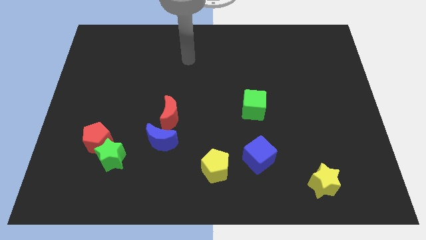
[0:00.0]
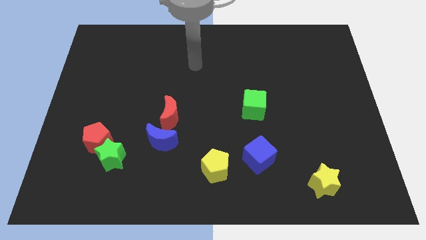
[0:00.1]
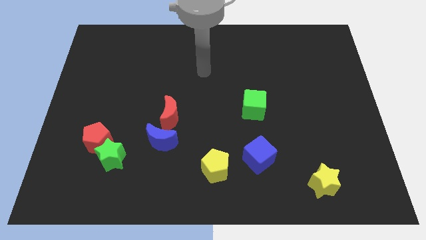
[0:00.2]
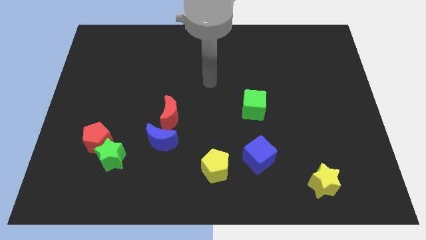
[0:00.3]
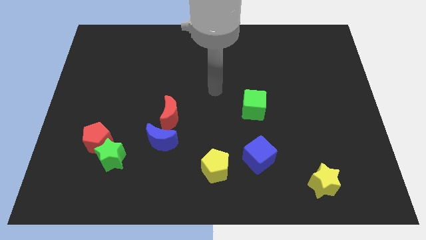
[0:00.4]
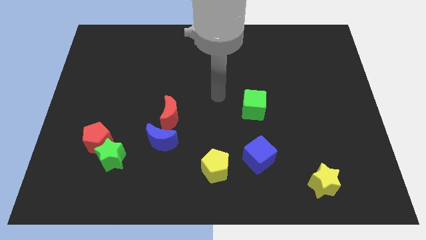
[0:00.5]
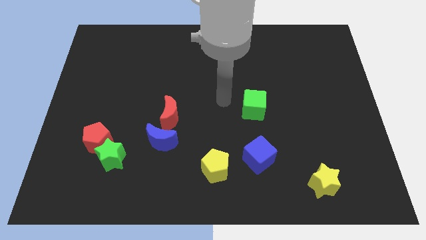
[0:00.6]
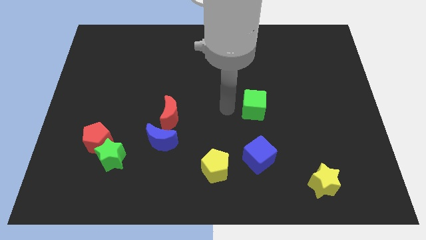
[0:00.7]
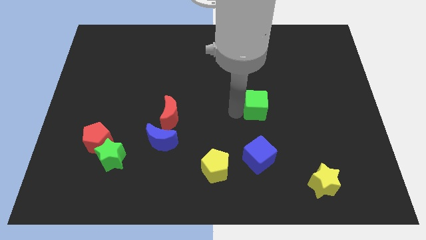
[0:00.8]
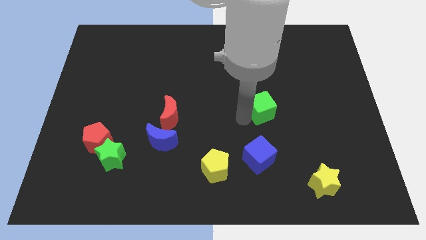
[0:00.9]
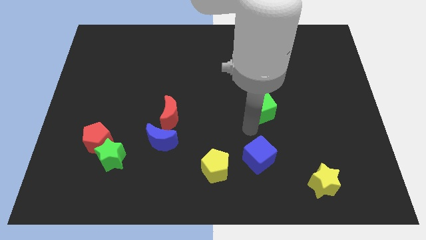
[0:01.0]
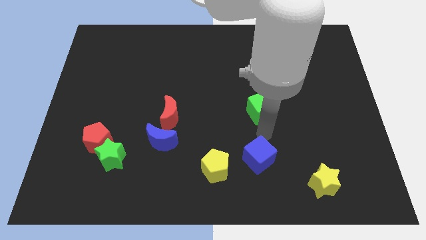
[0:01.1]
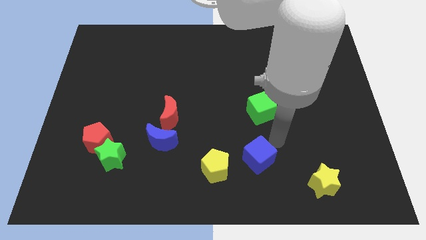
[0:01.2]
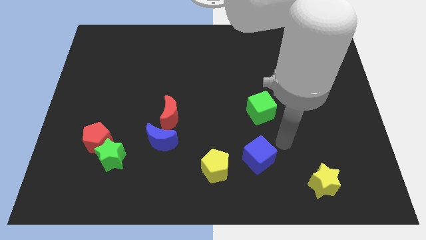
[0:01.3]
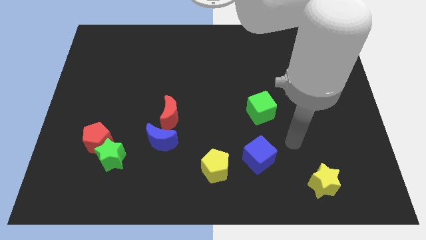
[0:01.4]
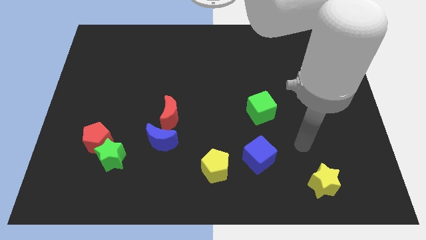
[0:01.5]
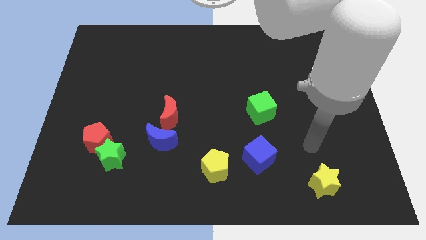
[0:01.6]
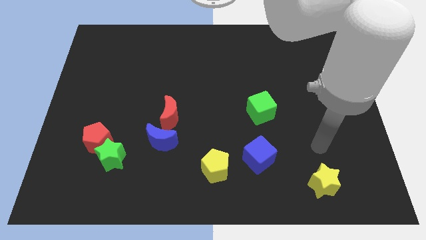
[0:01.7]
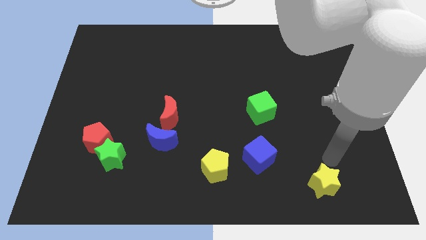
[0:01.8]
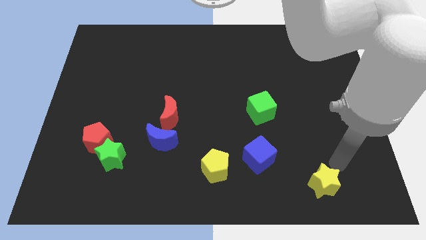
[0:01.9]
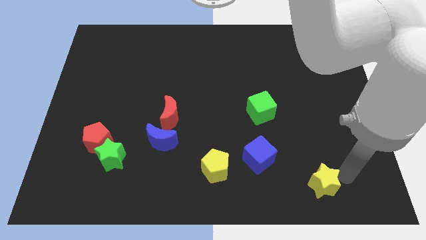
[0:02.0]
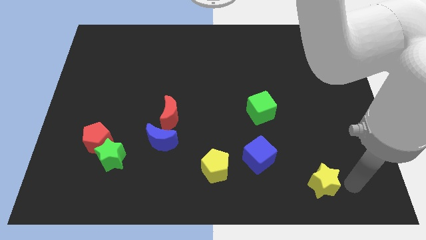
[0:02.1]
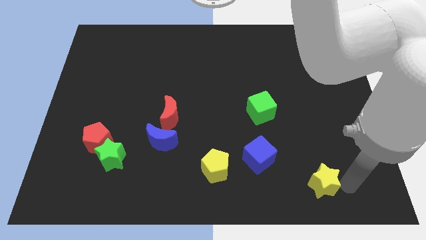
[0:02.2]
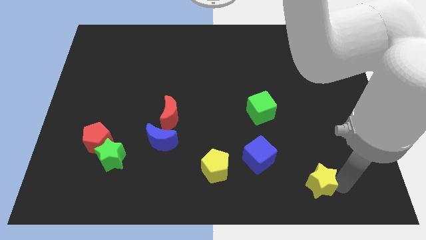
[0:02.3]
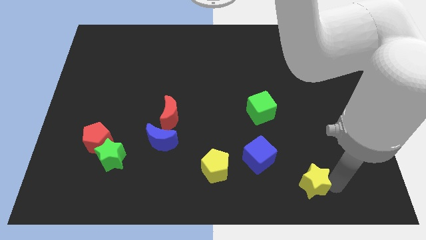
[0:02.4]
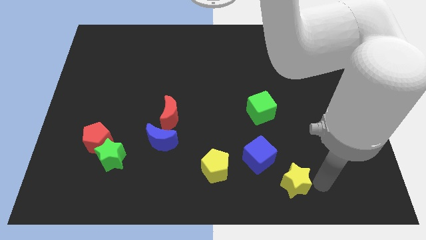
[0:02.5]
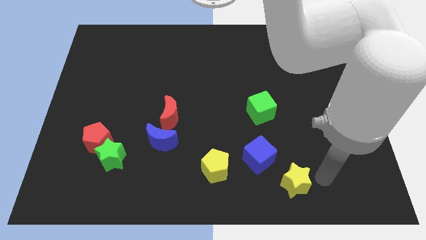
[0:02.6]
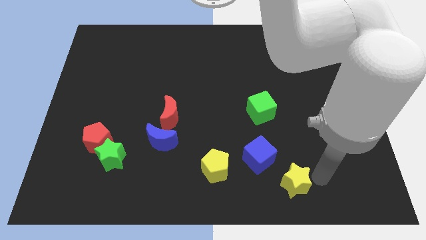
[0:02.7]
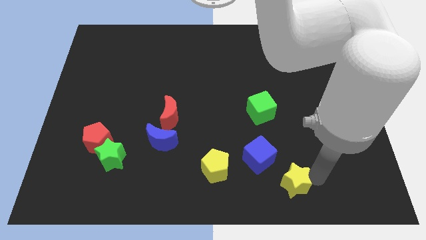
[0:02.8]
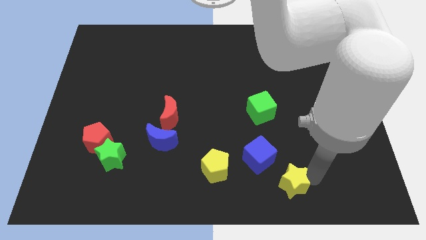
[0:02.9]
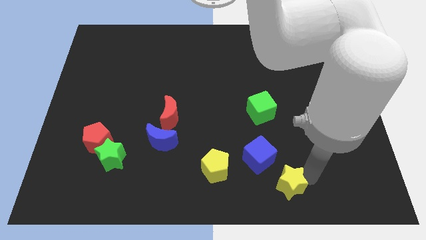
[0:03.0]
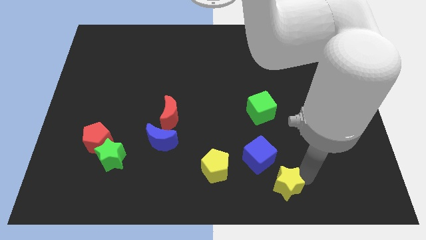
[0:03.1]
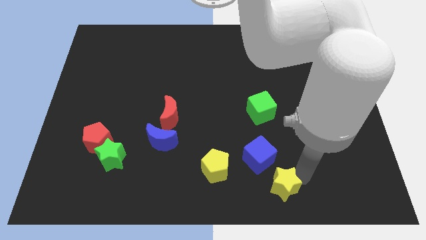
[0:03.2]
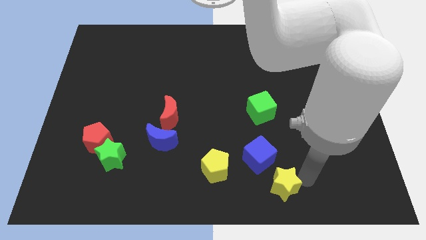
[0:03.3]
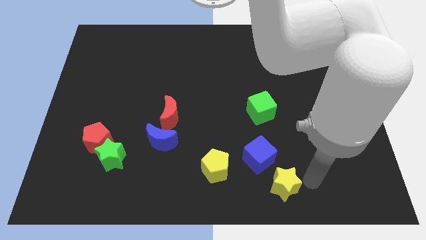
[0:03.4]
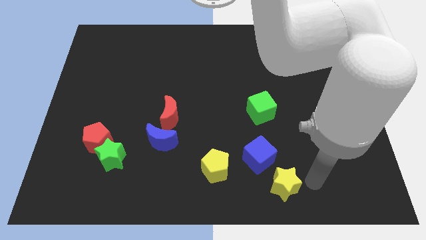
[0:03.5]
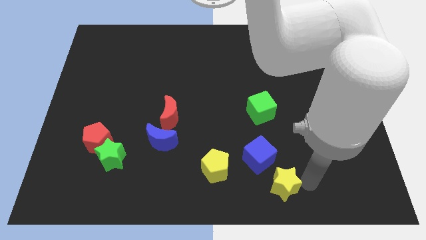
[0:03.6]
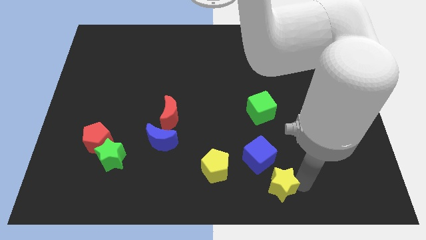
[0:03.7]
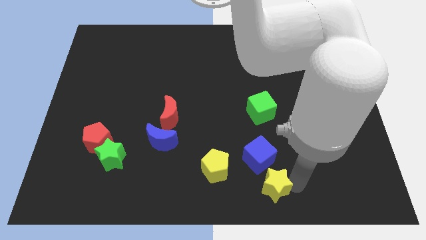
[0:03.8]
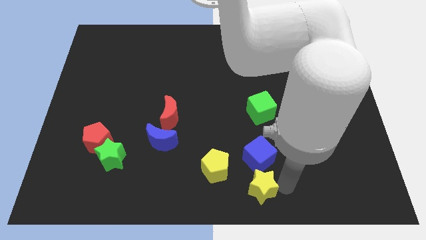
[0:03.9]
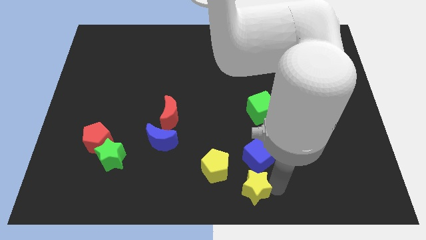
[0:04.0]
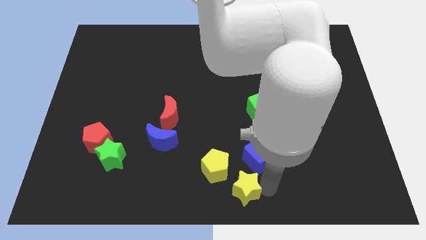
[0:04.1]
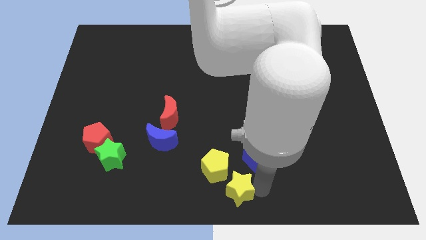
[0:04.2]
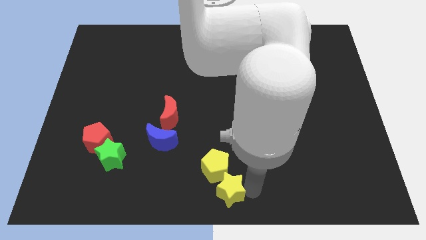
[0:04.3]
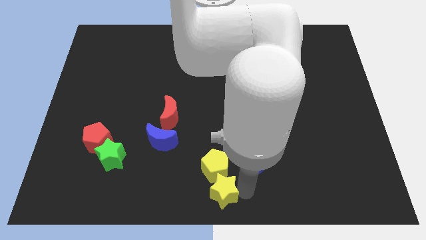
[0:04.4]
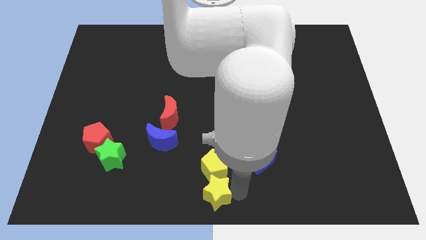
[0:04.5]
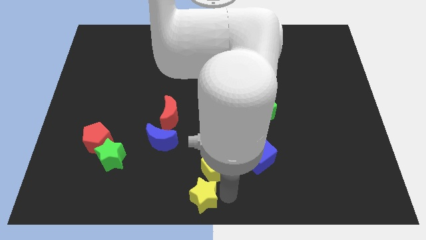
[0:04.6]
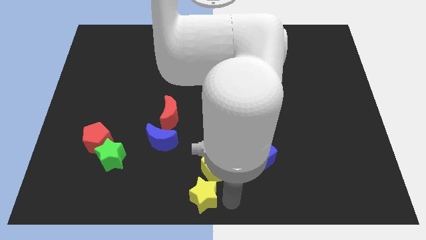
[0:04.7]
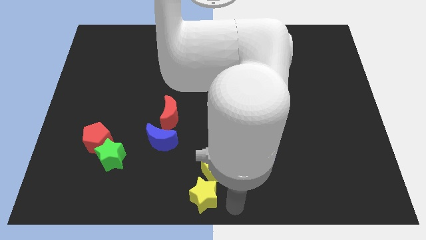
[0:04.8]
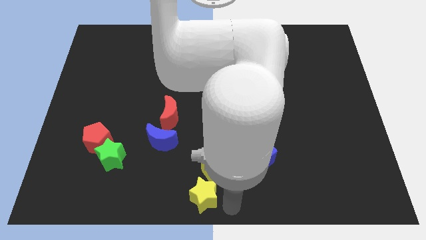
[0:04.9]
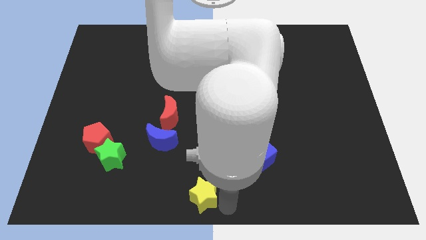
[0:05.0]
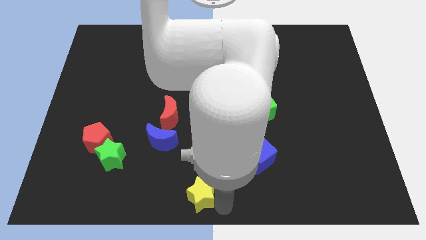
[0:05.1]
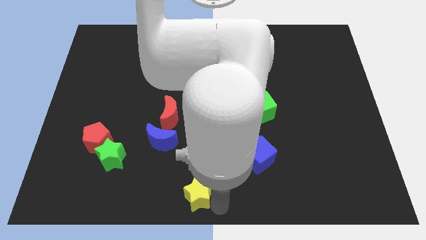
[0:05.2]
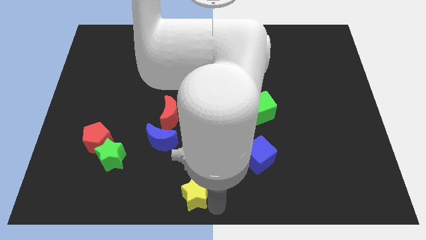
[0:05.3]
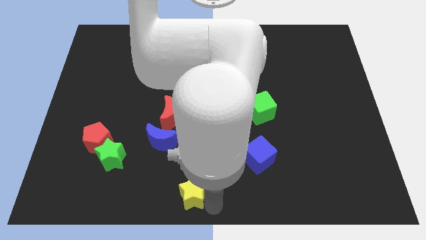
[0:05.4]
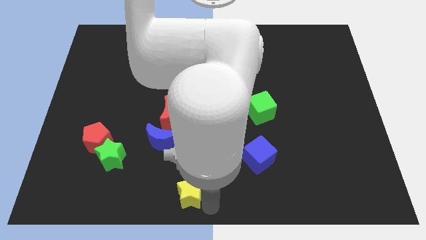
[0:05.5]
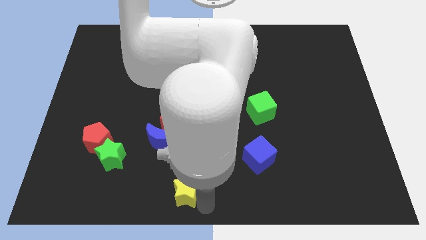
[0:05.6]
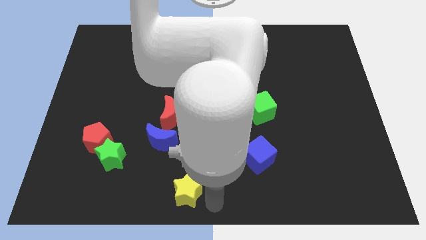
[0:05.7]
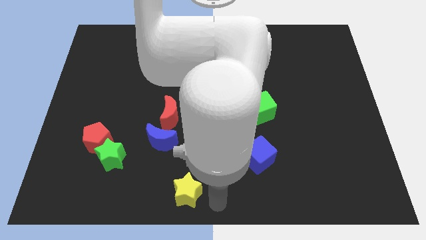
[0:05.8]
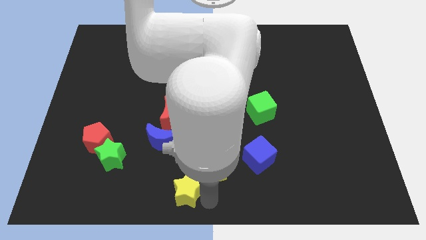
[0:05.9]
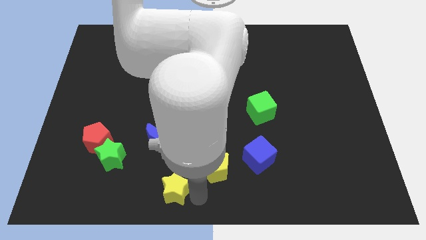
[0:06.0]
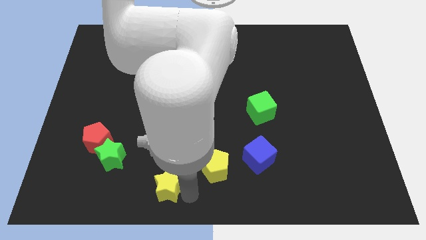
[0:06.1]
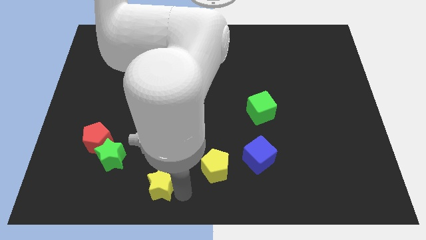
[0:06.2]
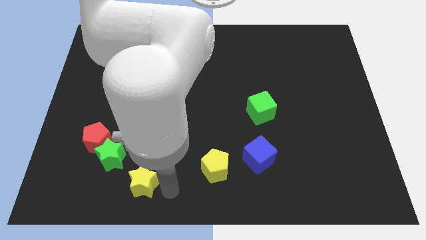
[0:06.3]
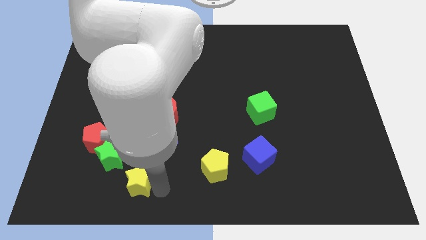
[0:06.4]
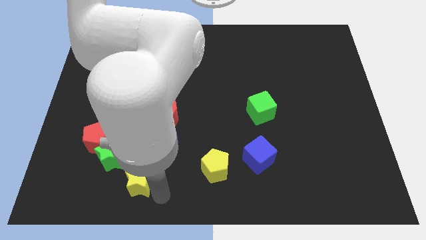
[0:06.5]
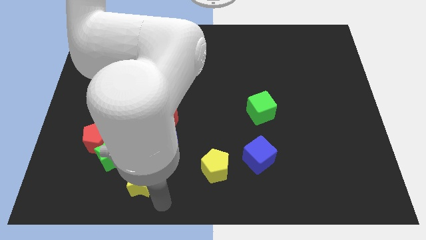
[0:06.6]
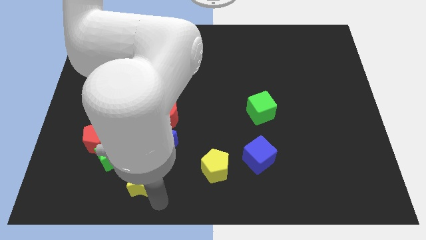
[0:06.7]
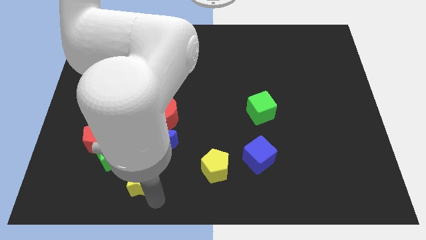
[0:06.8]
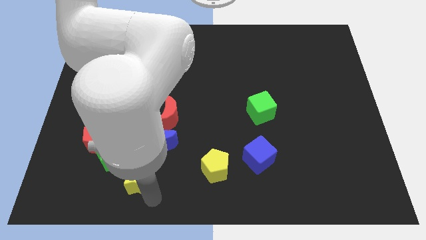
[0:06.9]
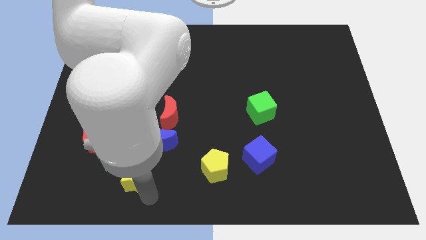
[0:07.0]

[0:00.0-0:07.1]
move the yellow star diagonally down and to the right of the red pentagon
